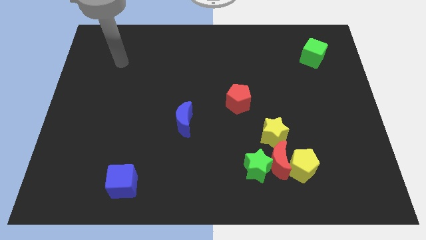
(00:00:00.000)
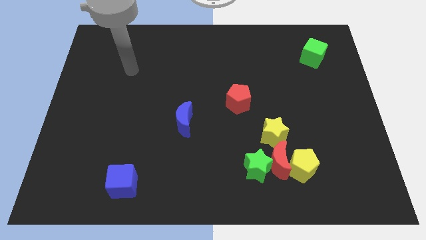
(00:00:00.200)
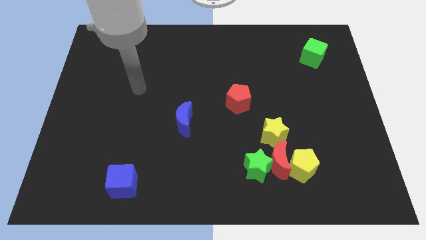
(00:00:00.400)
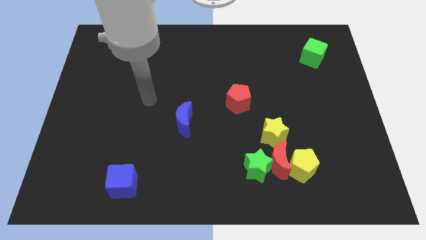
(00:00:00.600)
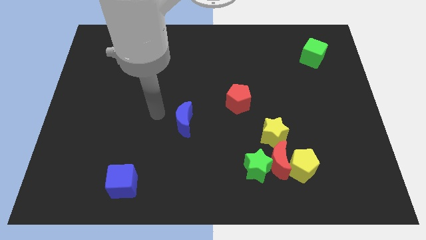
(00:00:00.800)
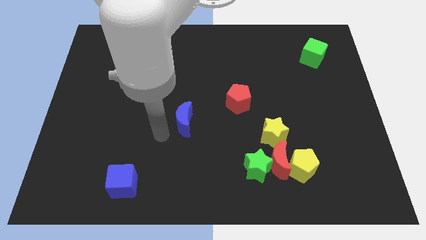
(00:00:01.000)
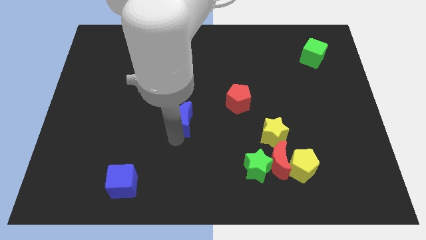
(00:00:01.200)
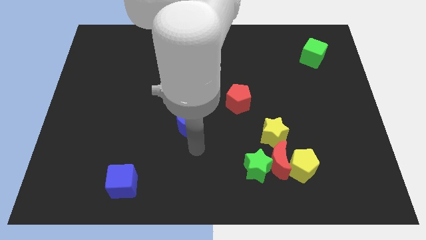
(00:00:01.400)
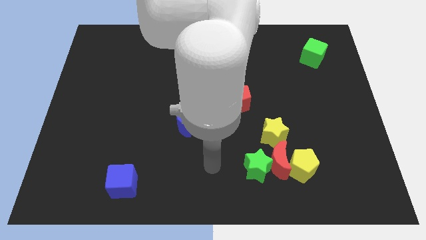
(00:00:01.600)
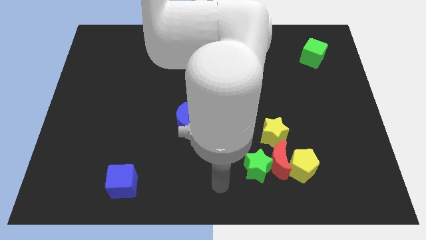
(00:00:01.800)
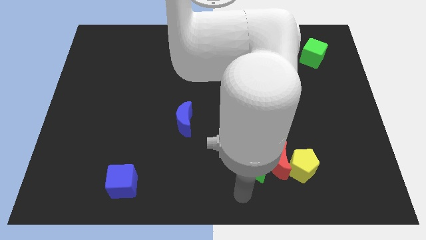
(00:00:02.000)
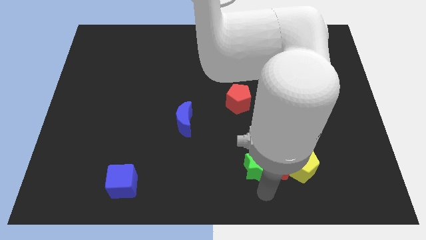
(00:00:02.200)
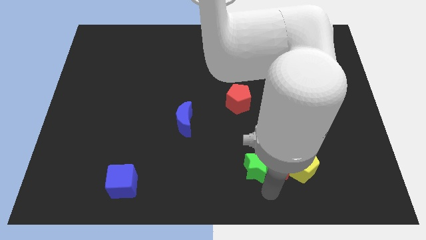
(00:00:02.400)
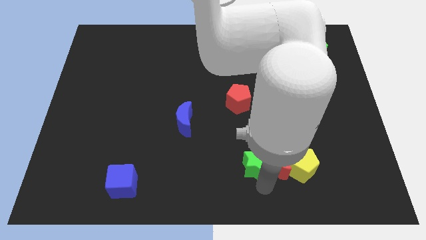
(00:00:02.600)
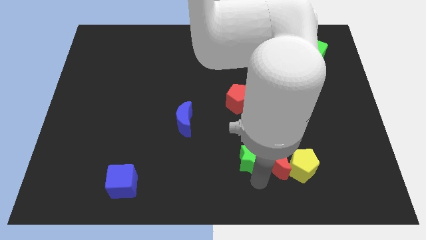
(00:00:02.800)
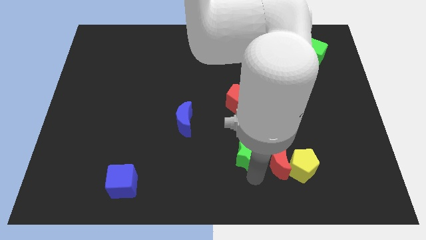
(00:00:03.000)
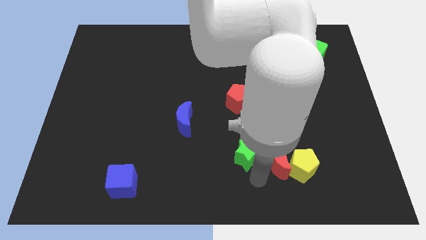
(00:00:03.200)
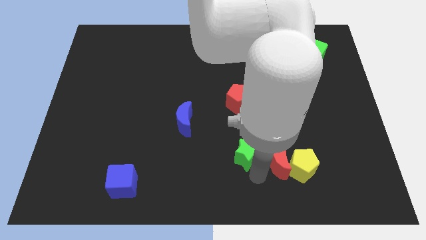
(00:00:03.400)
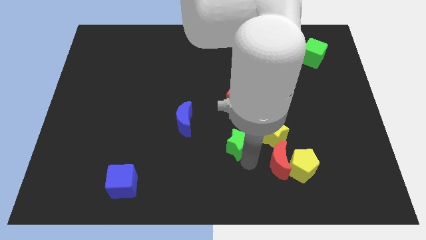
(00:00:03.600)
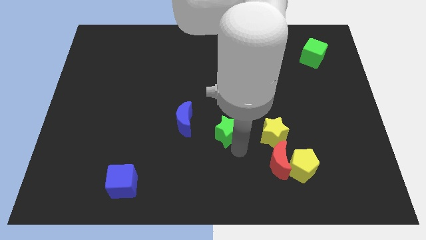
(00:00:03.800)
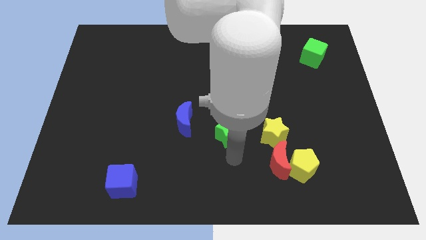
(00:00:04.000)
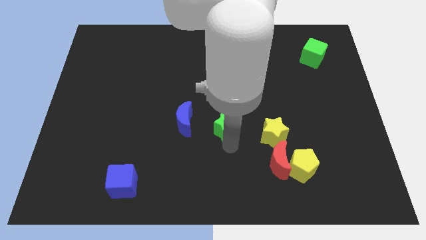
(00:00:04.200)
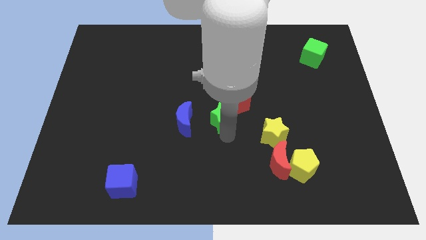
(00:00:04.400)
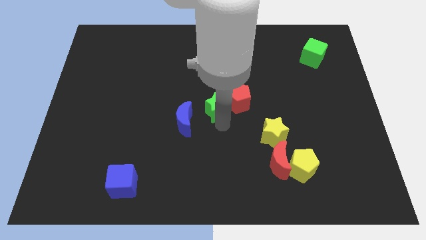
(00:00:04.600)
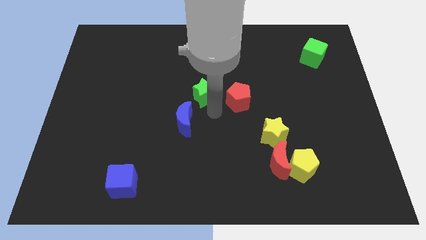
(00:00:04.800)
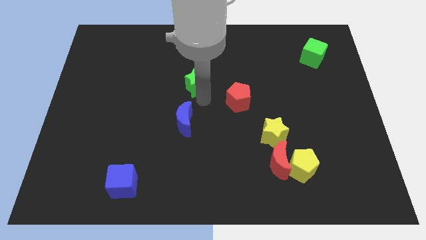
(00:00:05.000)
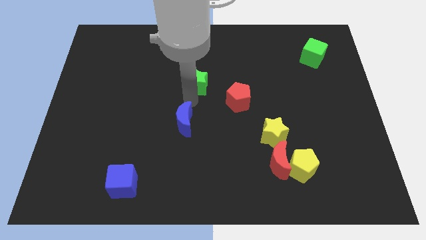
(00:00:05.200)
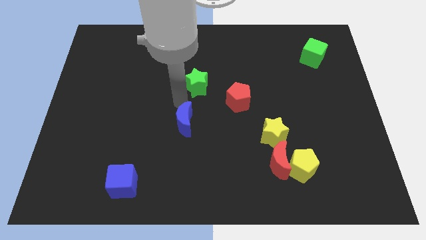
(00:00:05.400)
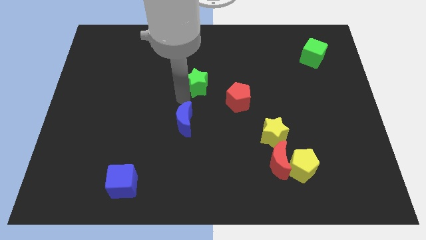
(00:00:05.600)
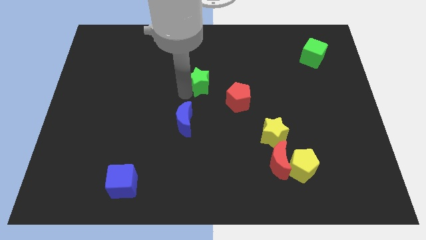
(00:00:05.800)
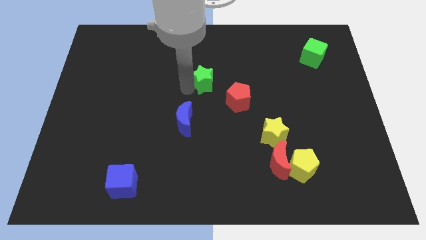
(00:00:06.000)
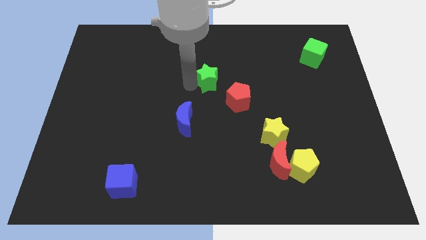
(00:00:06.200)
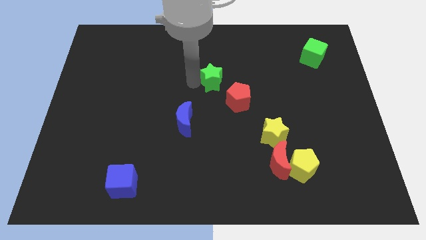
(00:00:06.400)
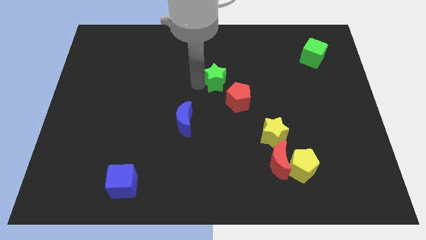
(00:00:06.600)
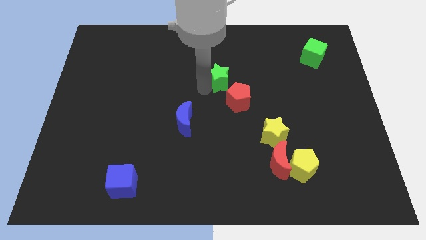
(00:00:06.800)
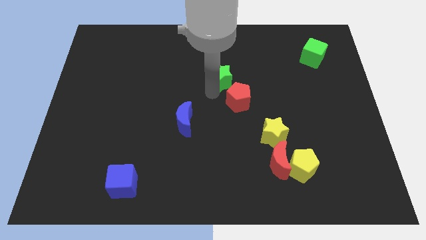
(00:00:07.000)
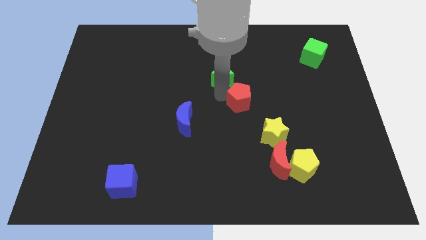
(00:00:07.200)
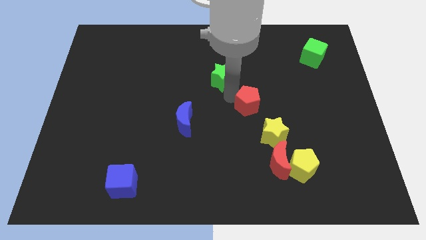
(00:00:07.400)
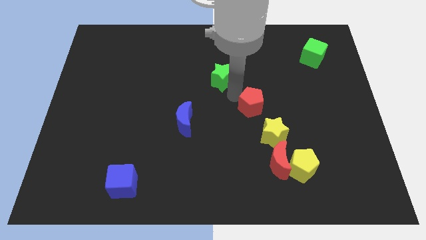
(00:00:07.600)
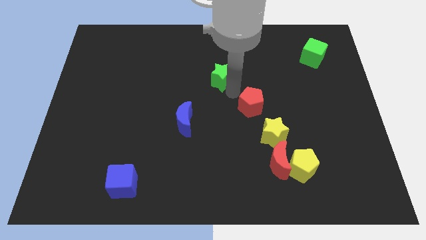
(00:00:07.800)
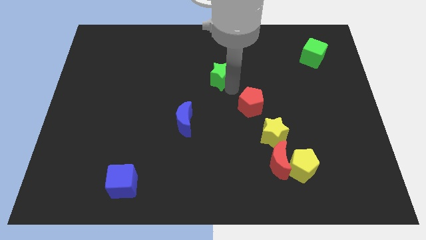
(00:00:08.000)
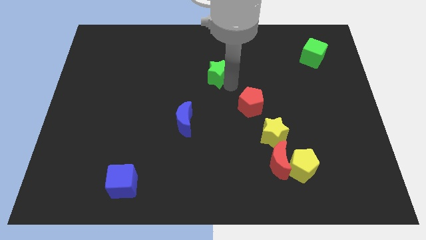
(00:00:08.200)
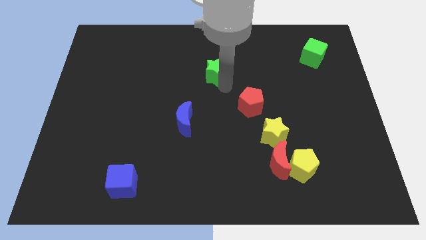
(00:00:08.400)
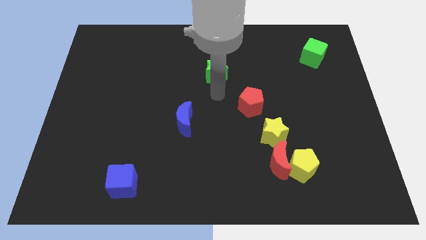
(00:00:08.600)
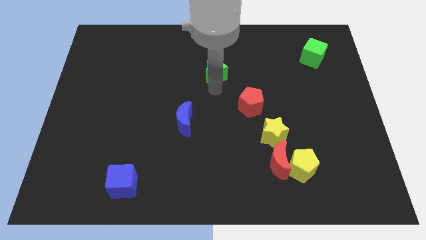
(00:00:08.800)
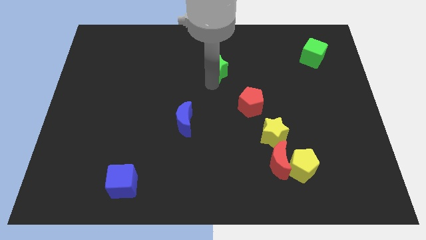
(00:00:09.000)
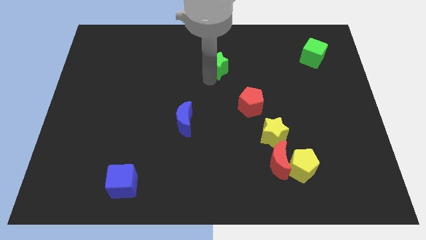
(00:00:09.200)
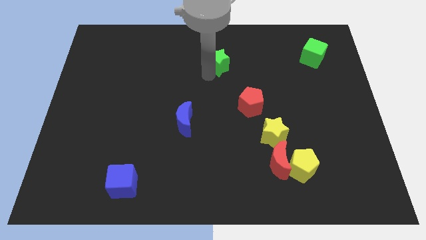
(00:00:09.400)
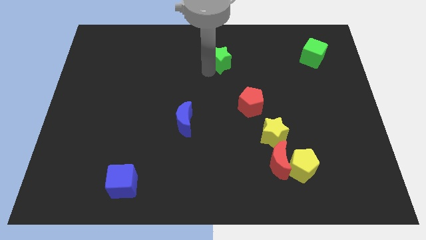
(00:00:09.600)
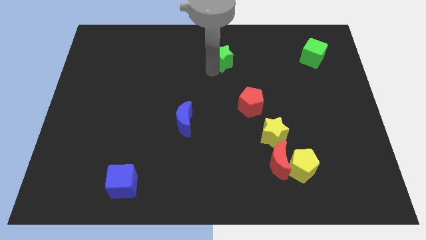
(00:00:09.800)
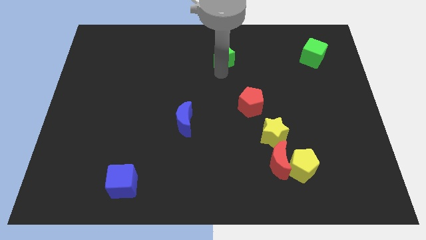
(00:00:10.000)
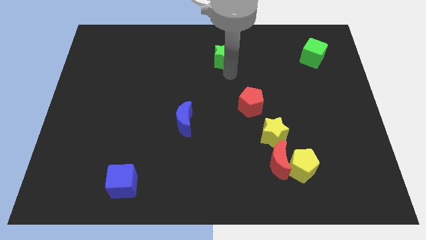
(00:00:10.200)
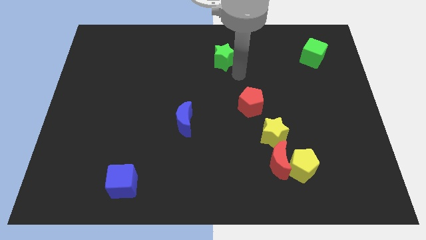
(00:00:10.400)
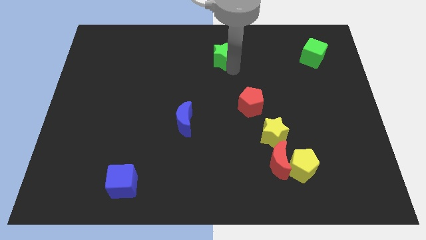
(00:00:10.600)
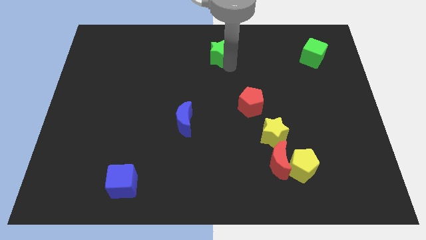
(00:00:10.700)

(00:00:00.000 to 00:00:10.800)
put the green star to the top
